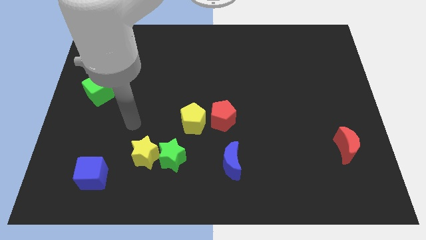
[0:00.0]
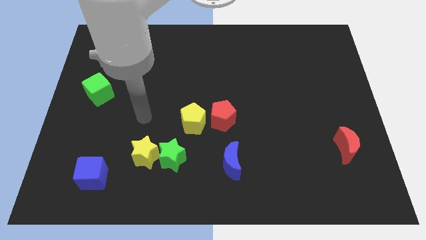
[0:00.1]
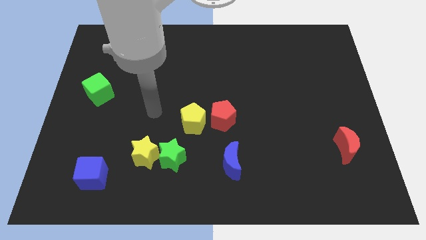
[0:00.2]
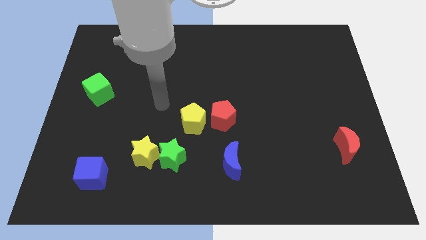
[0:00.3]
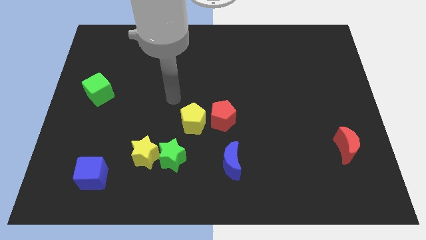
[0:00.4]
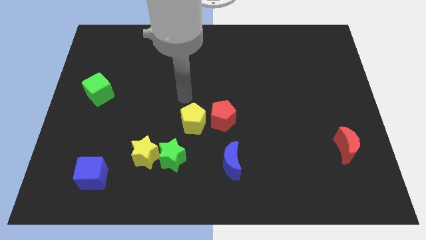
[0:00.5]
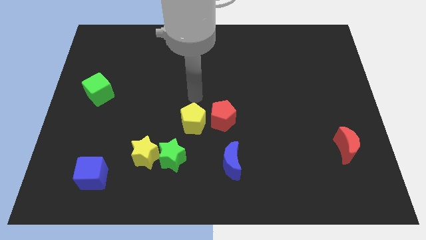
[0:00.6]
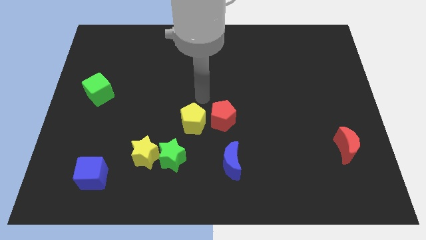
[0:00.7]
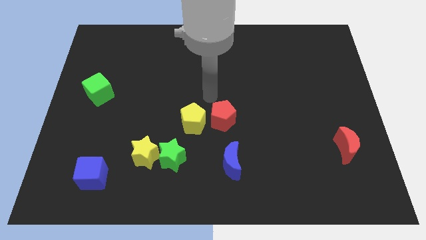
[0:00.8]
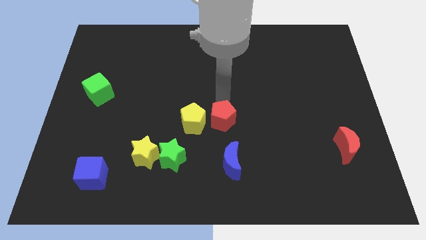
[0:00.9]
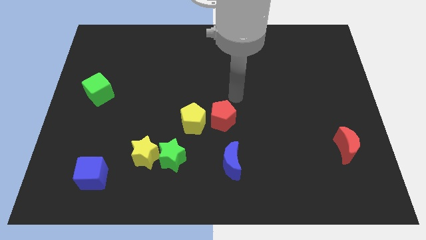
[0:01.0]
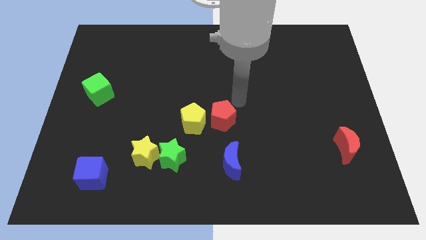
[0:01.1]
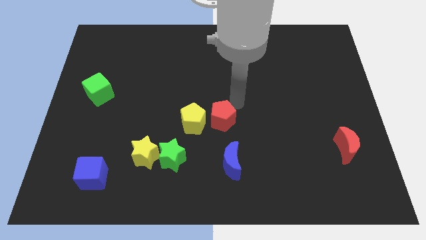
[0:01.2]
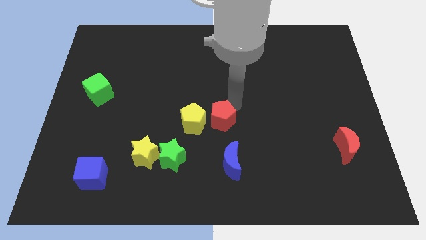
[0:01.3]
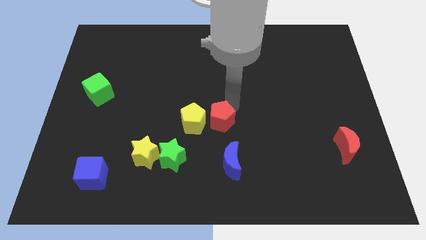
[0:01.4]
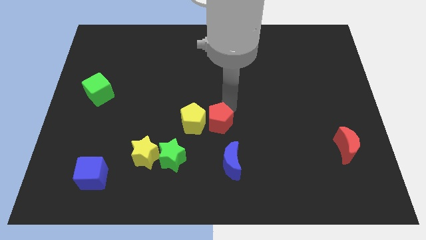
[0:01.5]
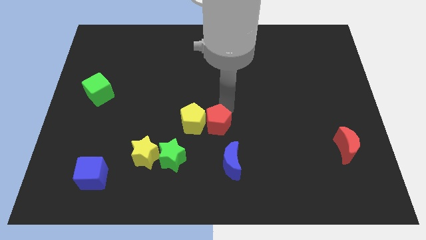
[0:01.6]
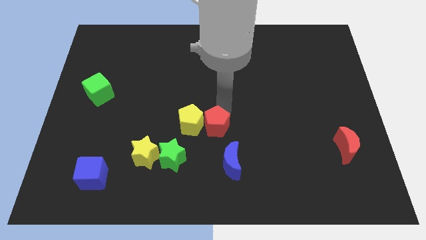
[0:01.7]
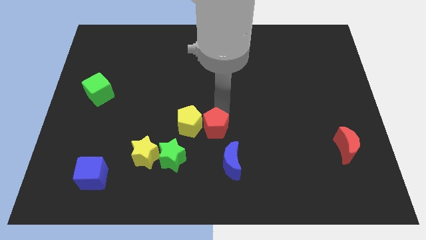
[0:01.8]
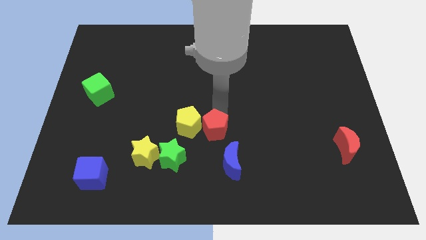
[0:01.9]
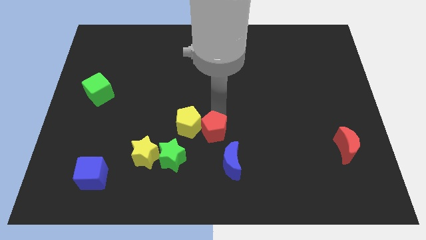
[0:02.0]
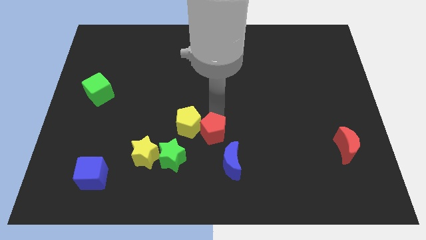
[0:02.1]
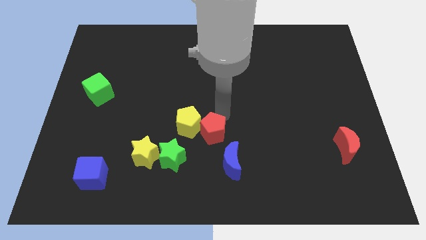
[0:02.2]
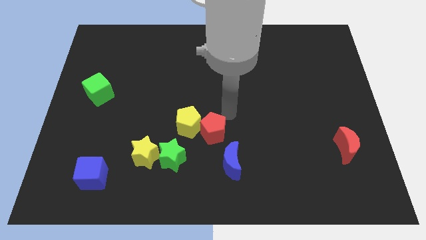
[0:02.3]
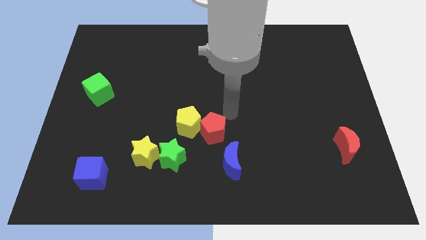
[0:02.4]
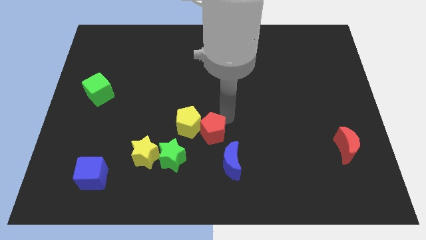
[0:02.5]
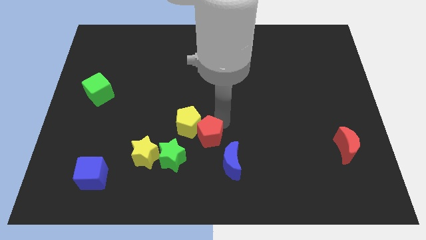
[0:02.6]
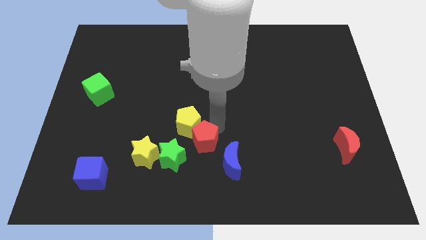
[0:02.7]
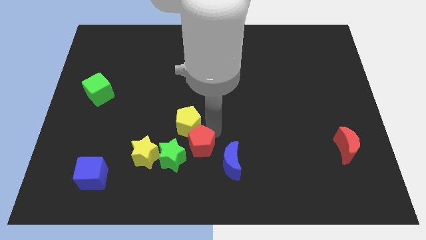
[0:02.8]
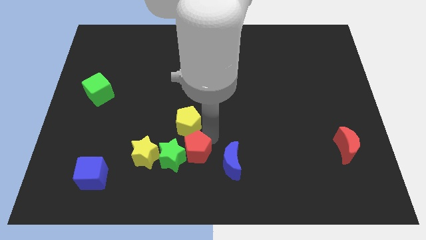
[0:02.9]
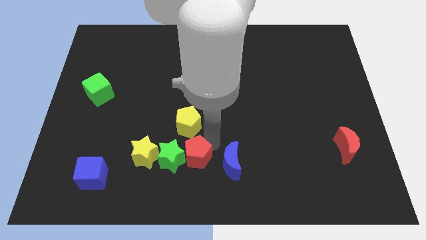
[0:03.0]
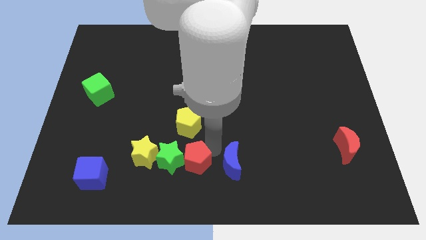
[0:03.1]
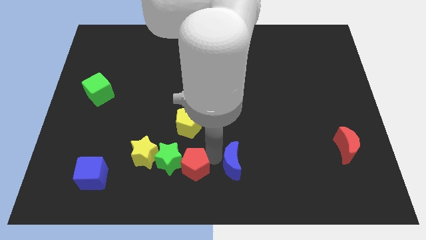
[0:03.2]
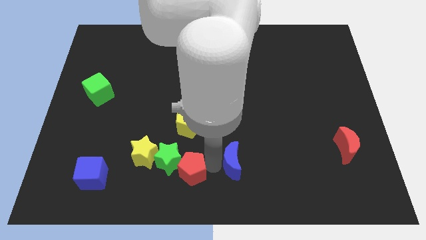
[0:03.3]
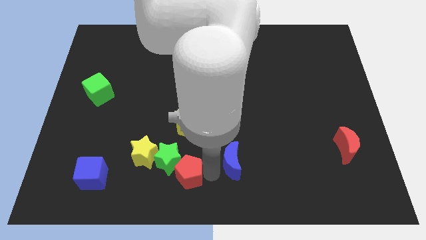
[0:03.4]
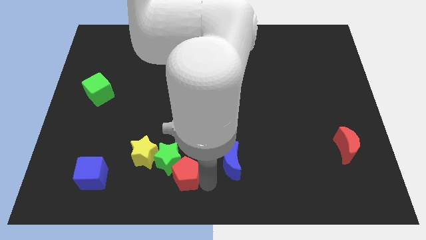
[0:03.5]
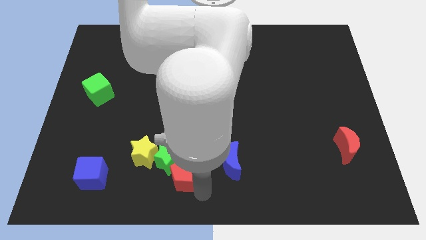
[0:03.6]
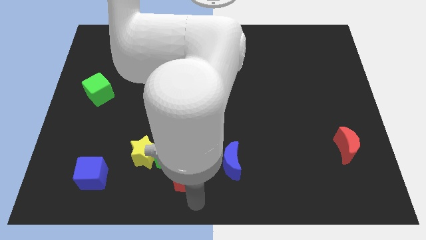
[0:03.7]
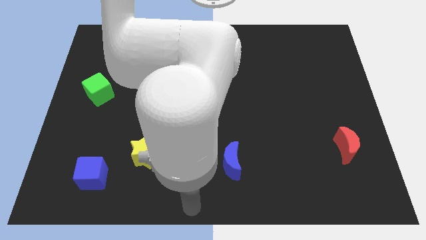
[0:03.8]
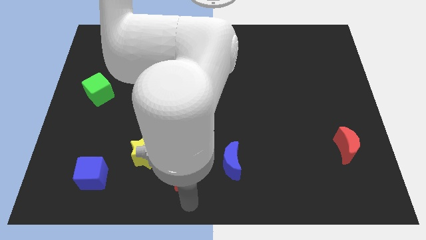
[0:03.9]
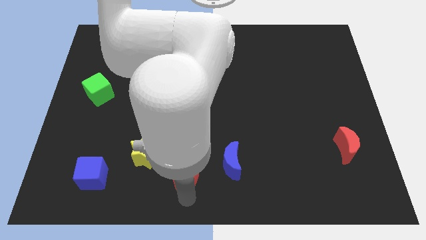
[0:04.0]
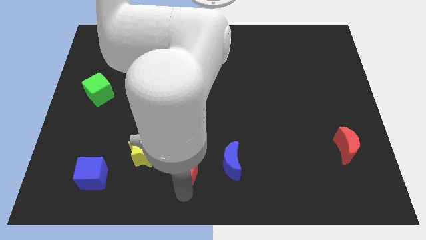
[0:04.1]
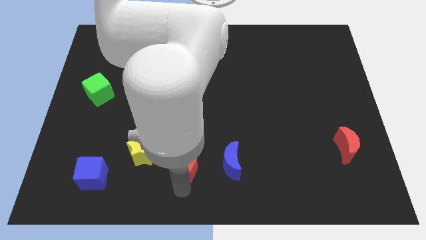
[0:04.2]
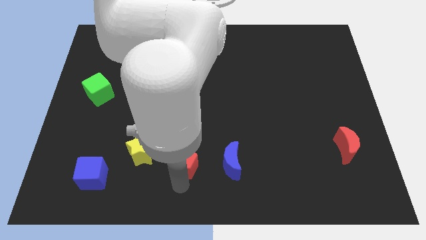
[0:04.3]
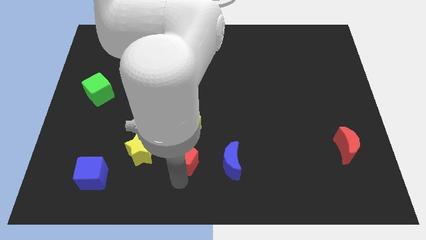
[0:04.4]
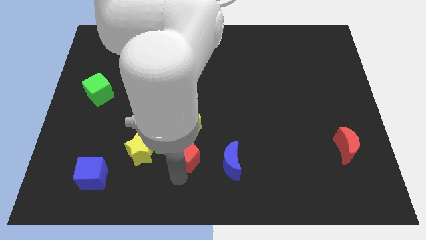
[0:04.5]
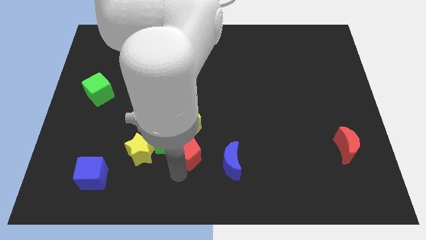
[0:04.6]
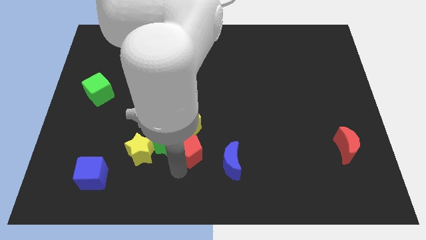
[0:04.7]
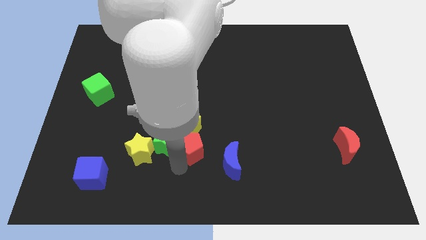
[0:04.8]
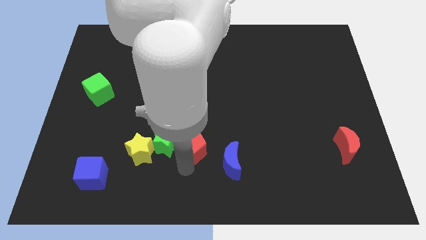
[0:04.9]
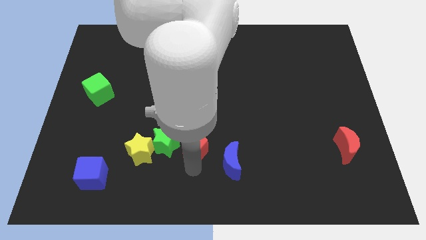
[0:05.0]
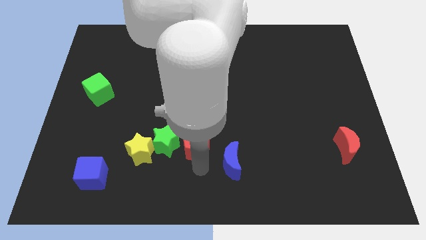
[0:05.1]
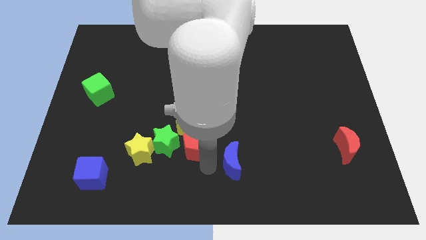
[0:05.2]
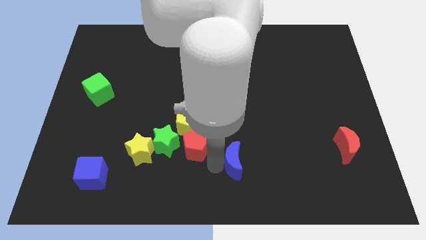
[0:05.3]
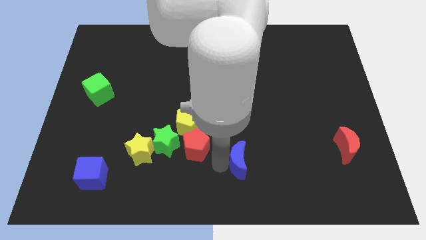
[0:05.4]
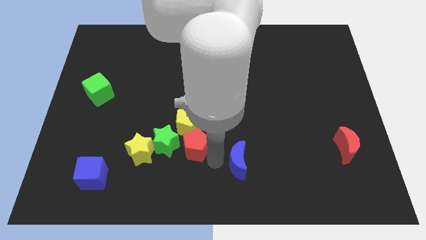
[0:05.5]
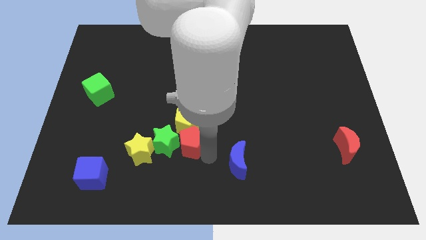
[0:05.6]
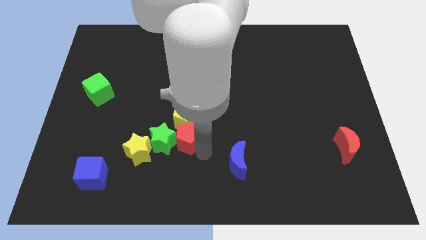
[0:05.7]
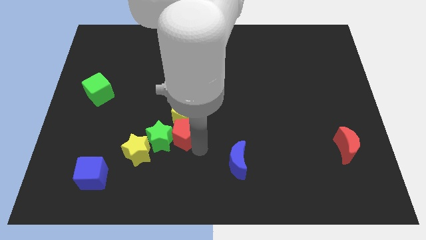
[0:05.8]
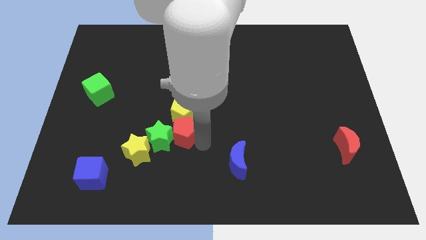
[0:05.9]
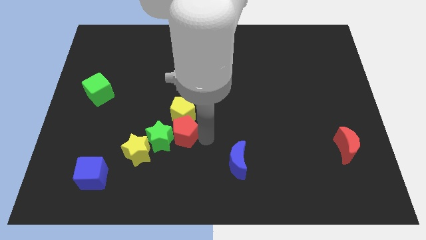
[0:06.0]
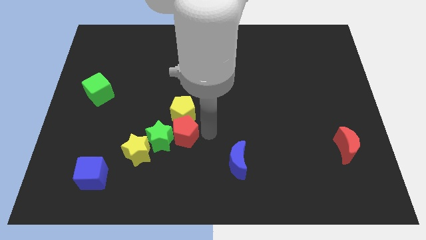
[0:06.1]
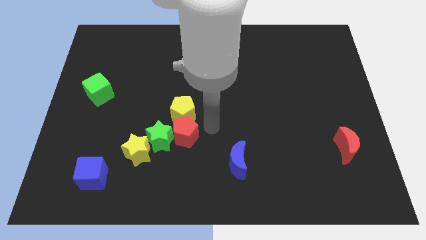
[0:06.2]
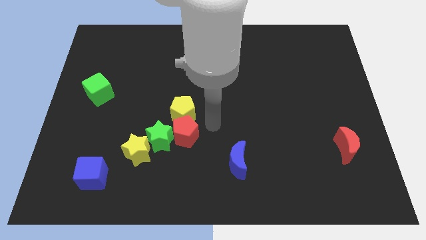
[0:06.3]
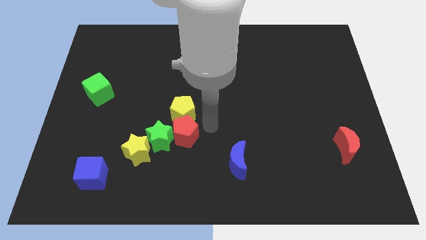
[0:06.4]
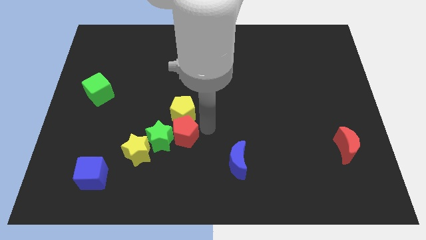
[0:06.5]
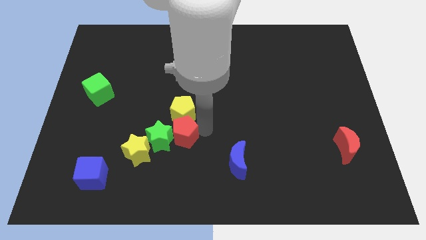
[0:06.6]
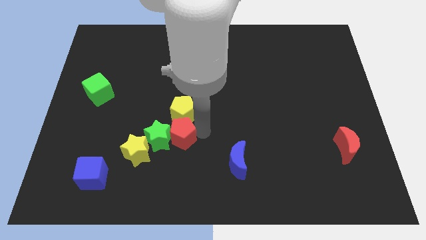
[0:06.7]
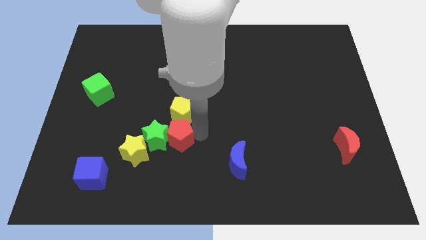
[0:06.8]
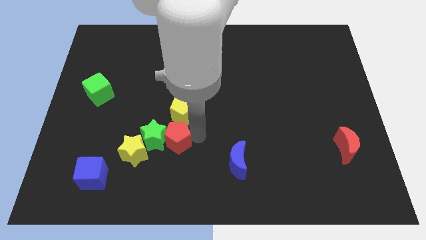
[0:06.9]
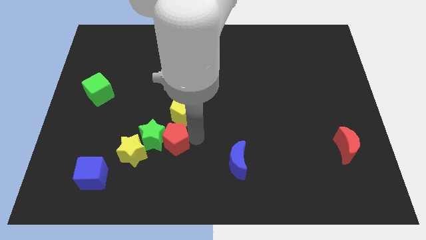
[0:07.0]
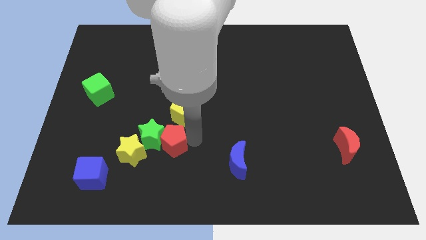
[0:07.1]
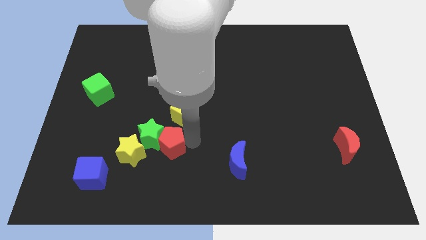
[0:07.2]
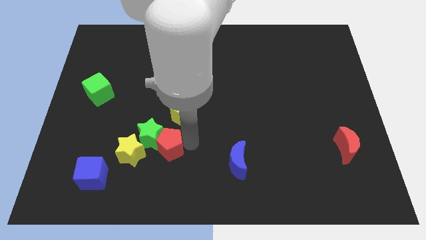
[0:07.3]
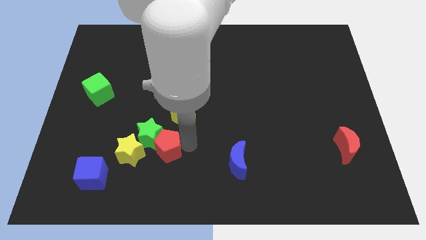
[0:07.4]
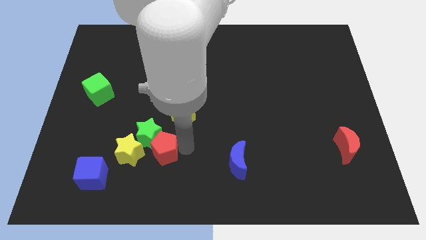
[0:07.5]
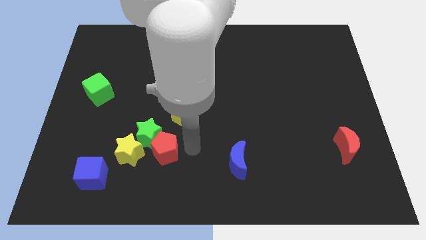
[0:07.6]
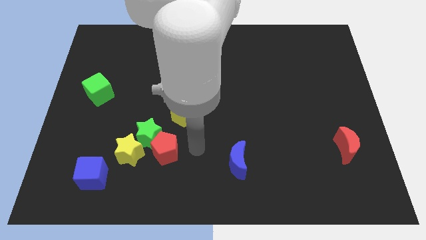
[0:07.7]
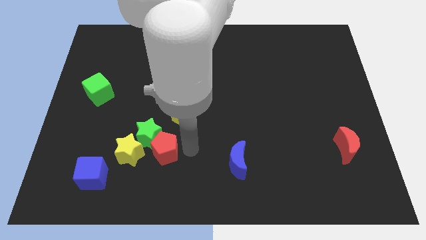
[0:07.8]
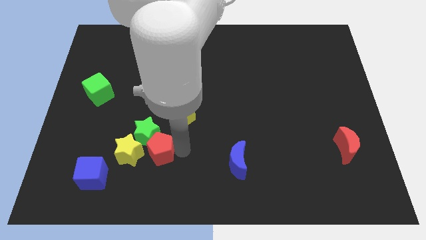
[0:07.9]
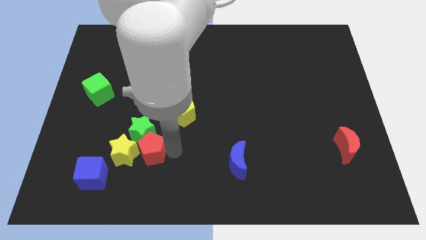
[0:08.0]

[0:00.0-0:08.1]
push the red pentagon next to the yellow star
